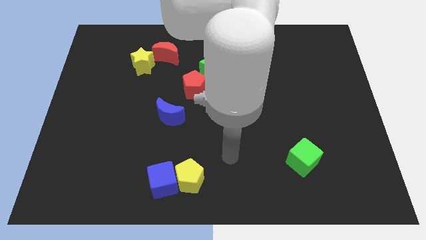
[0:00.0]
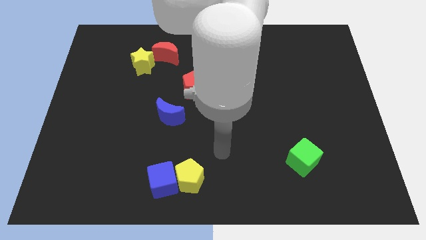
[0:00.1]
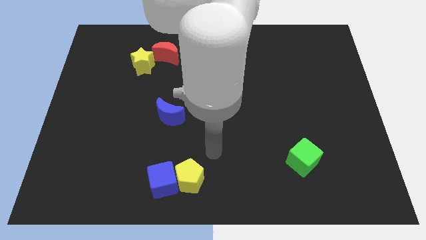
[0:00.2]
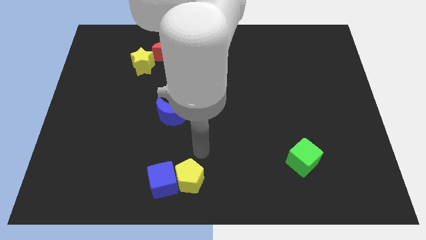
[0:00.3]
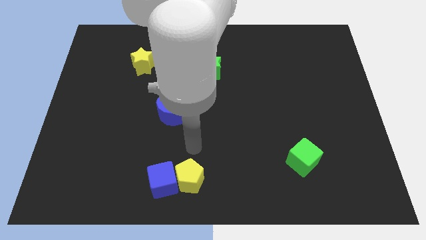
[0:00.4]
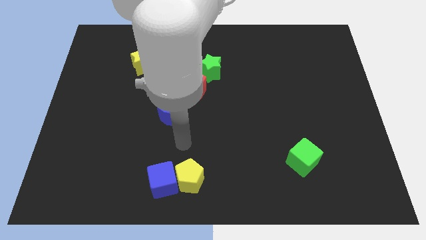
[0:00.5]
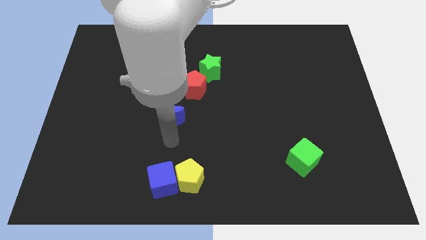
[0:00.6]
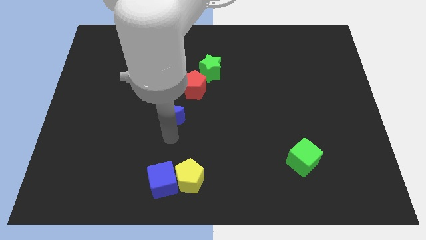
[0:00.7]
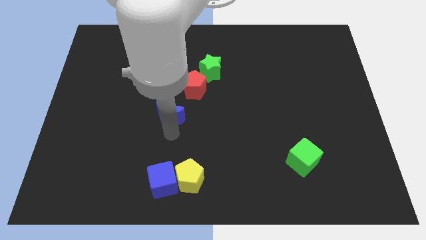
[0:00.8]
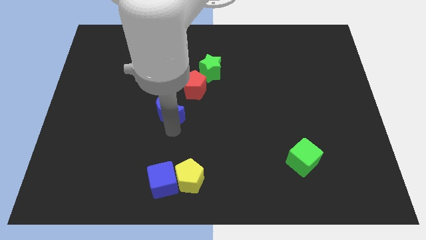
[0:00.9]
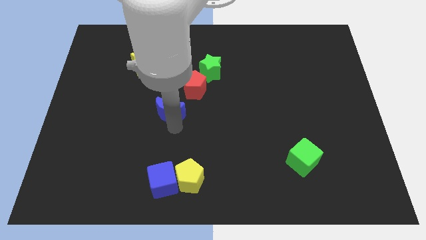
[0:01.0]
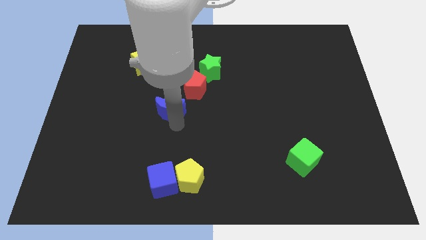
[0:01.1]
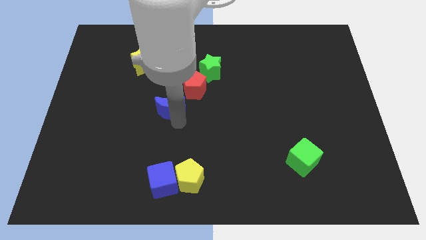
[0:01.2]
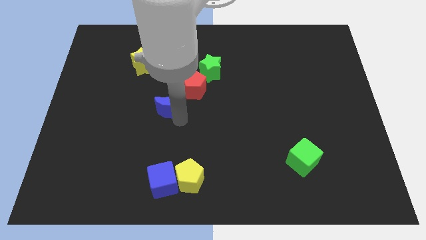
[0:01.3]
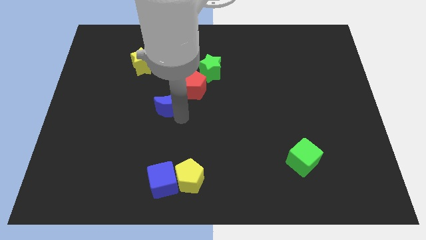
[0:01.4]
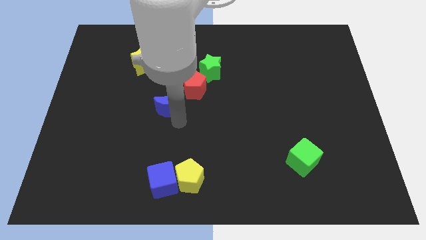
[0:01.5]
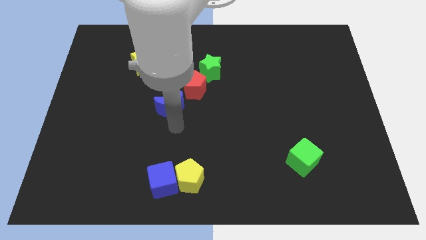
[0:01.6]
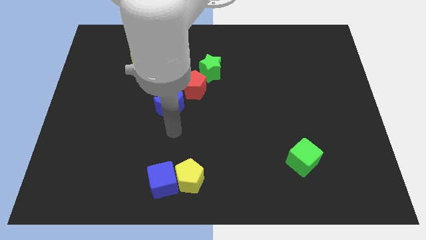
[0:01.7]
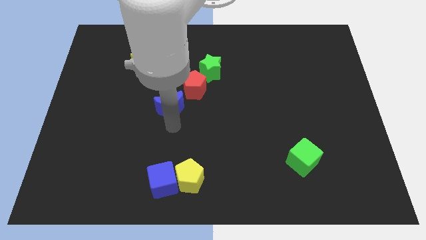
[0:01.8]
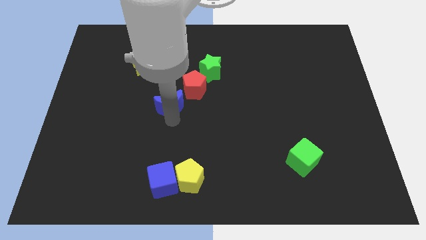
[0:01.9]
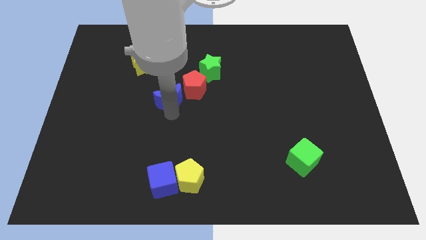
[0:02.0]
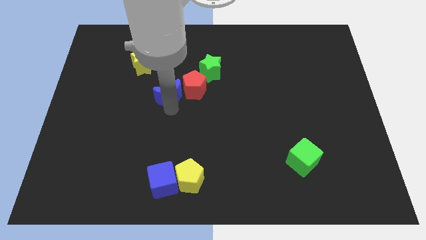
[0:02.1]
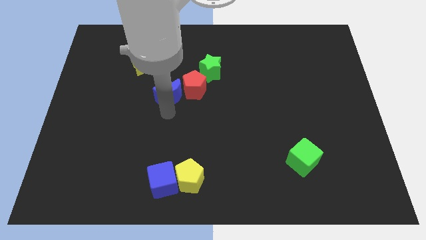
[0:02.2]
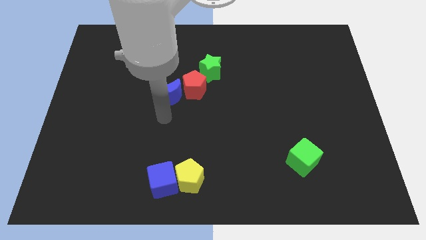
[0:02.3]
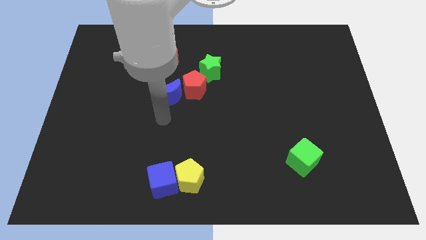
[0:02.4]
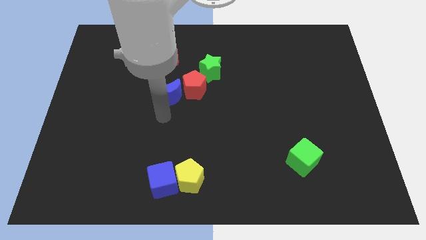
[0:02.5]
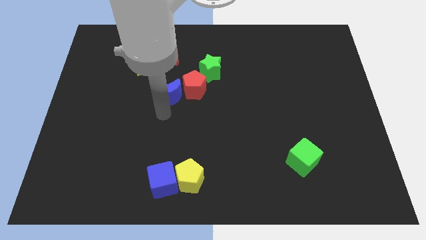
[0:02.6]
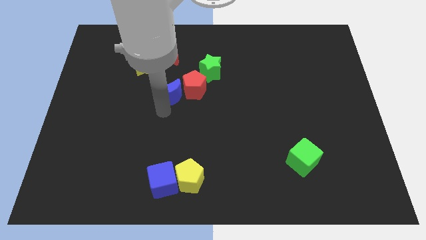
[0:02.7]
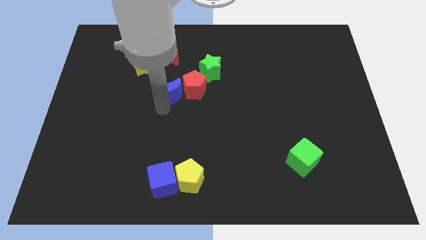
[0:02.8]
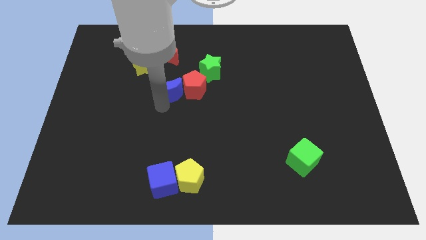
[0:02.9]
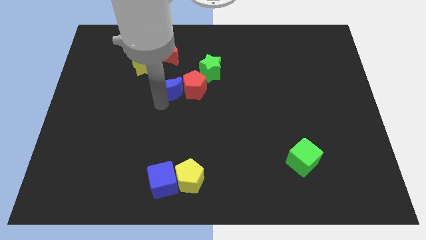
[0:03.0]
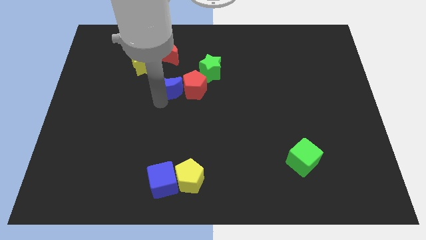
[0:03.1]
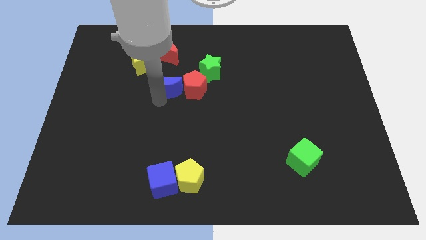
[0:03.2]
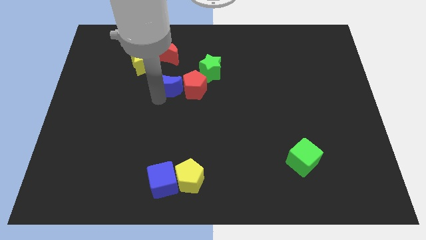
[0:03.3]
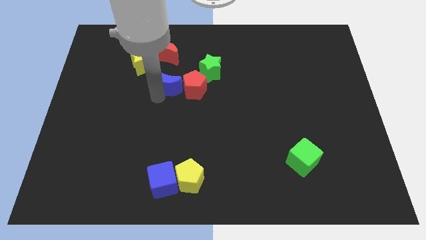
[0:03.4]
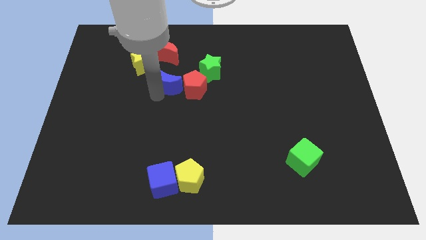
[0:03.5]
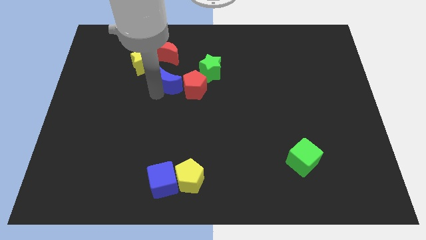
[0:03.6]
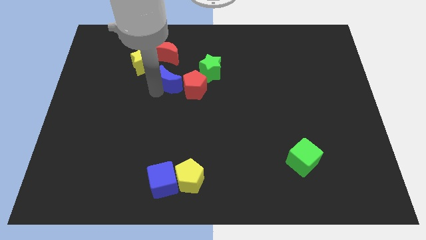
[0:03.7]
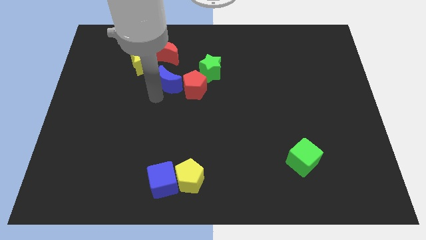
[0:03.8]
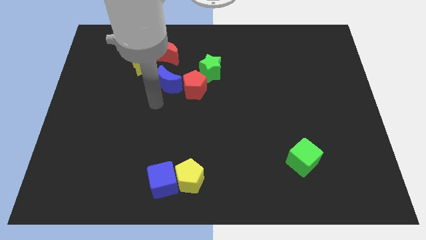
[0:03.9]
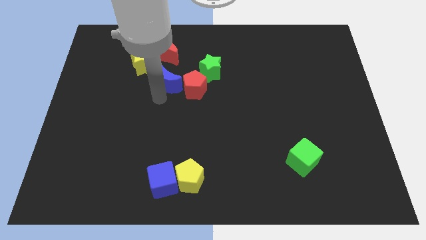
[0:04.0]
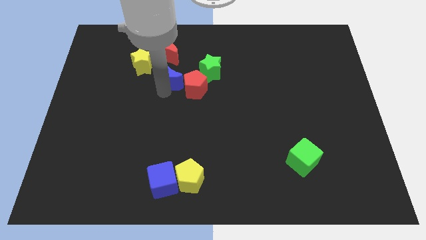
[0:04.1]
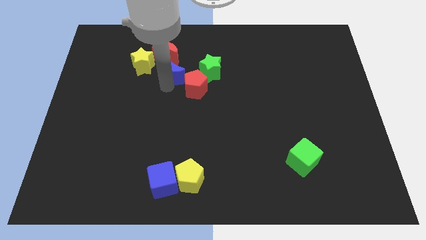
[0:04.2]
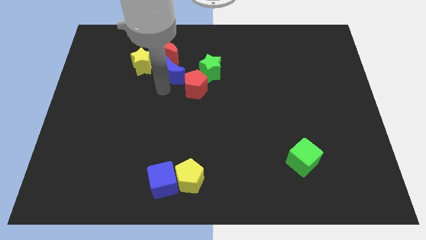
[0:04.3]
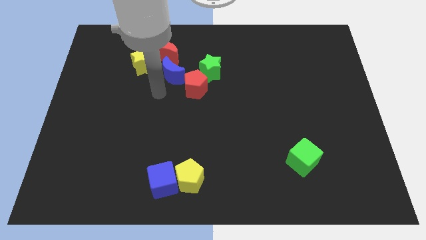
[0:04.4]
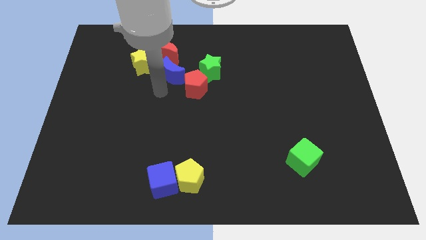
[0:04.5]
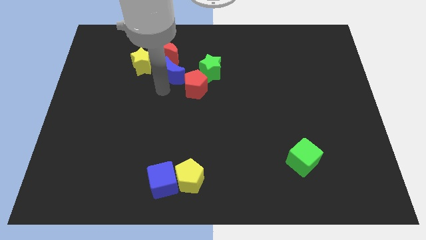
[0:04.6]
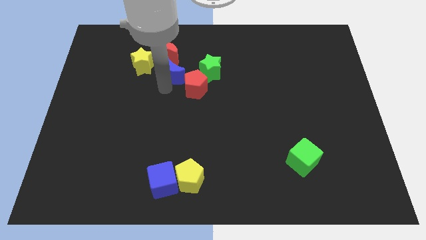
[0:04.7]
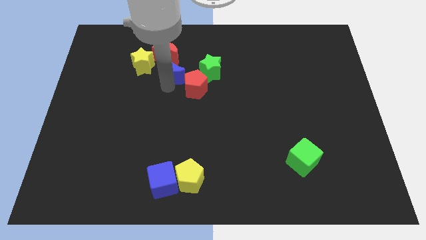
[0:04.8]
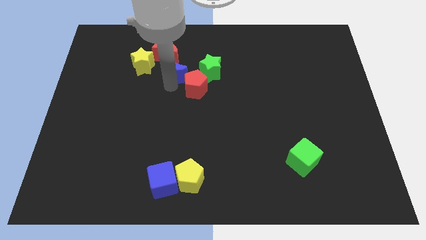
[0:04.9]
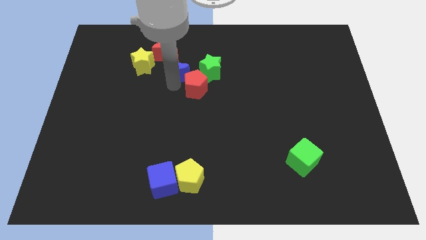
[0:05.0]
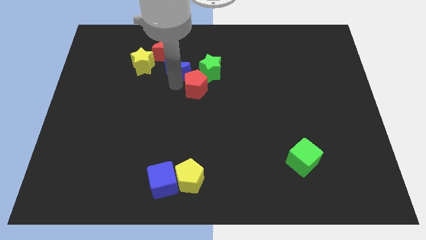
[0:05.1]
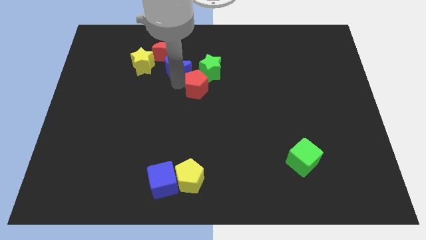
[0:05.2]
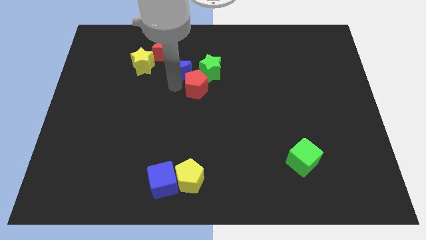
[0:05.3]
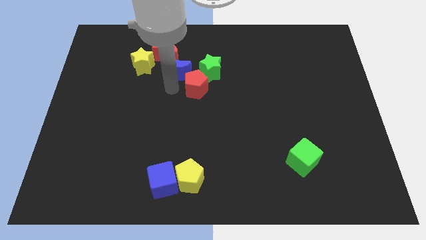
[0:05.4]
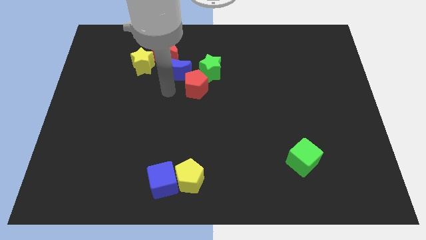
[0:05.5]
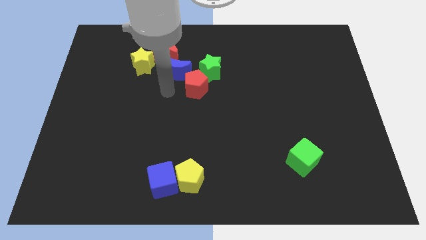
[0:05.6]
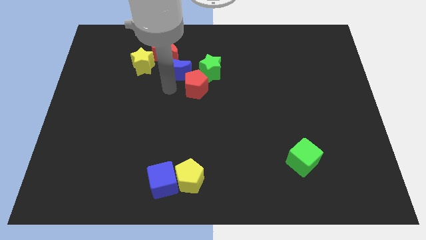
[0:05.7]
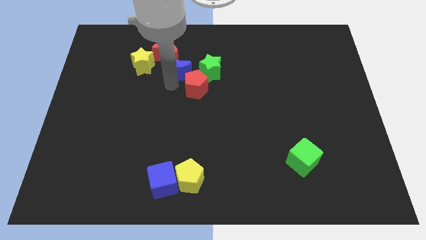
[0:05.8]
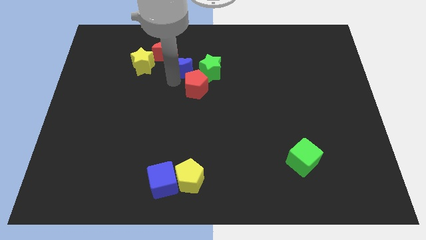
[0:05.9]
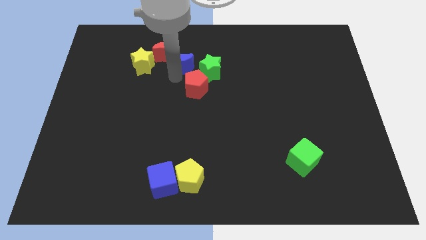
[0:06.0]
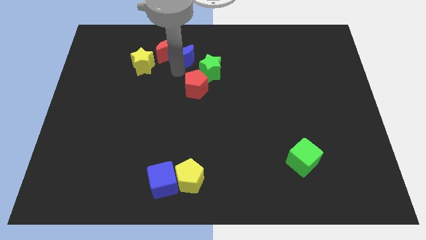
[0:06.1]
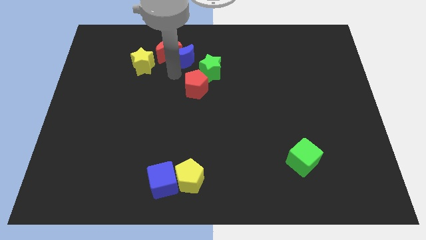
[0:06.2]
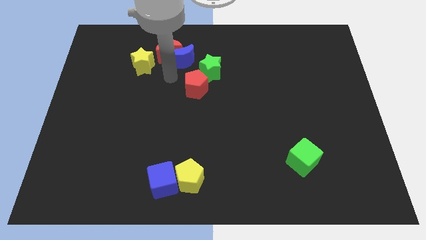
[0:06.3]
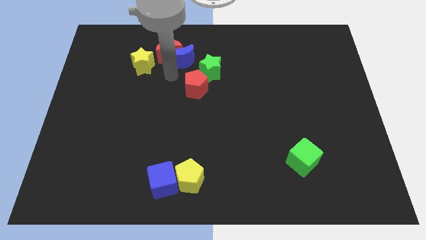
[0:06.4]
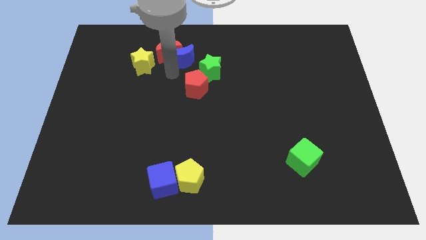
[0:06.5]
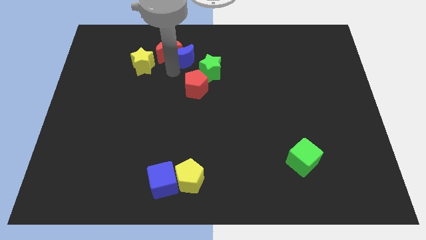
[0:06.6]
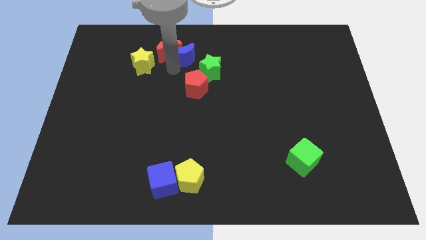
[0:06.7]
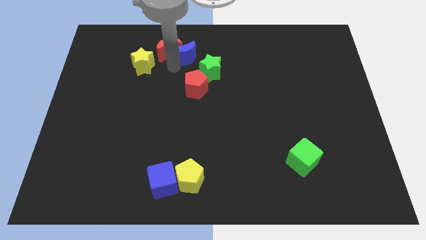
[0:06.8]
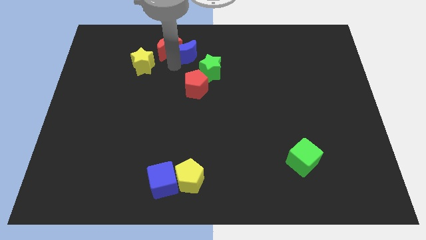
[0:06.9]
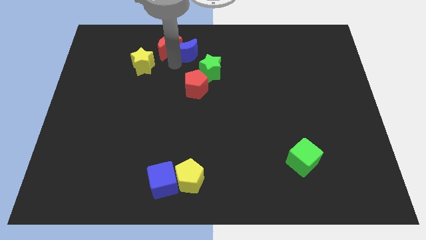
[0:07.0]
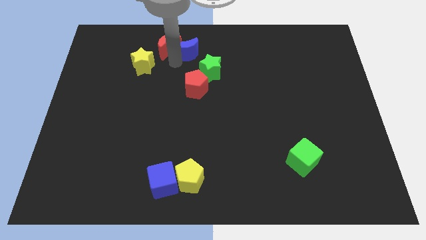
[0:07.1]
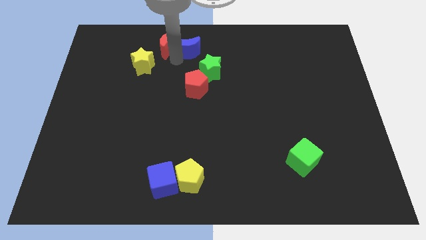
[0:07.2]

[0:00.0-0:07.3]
put the blue moon to the top

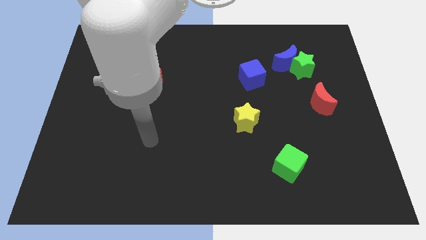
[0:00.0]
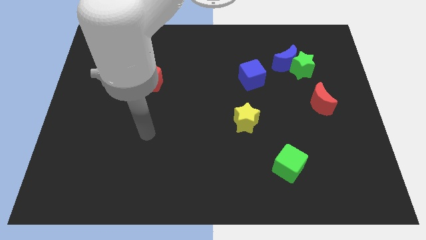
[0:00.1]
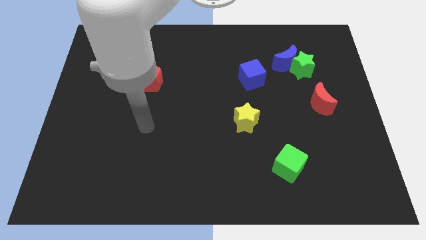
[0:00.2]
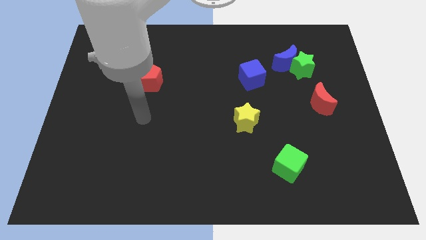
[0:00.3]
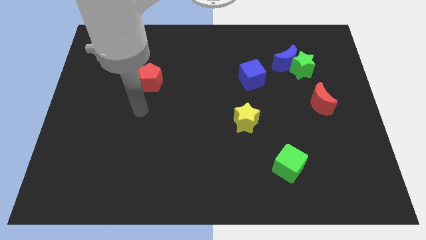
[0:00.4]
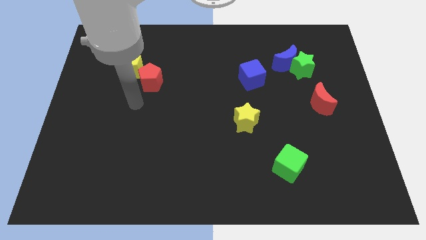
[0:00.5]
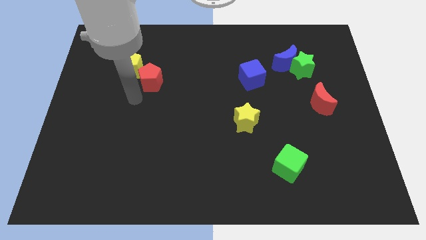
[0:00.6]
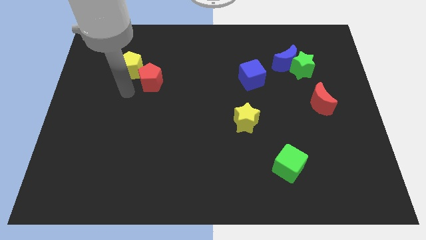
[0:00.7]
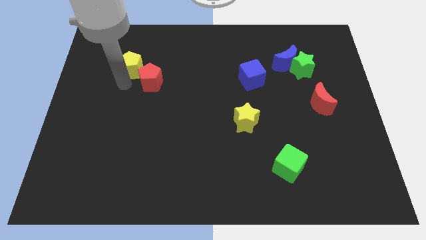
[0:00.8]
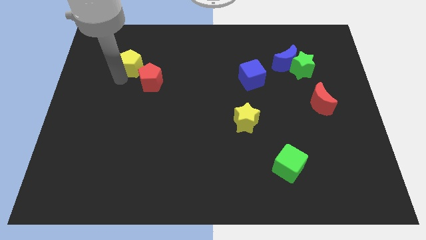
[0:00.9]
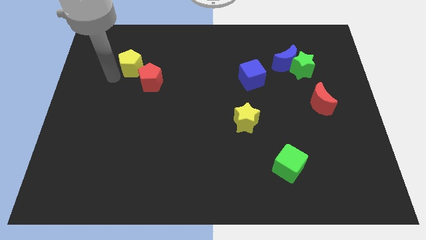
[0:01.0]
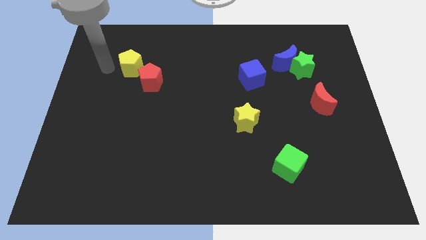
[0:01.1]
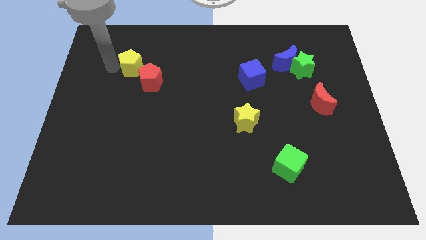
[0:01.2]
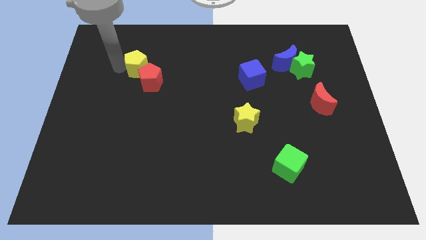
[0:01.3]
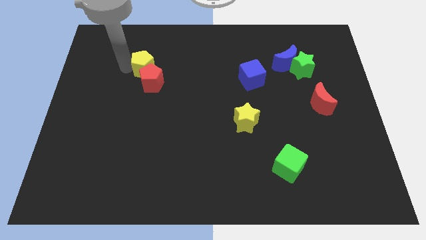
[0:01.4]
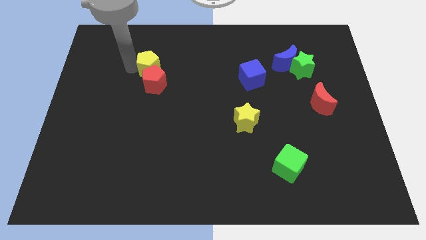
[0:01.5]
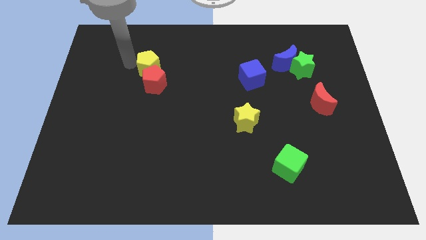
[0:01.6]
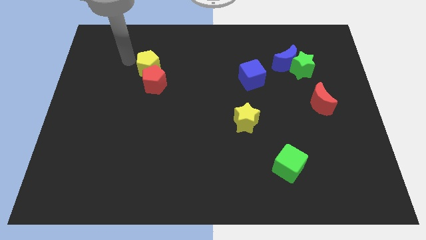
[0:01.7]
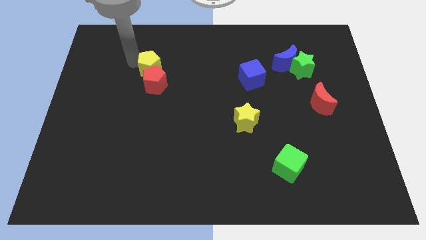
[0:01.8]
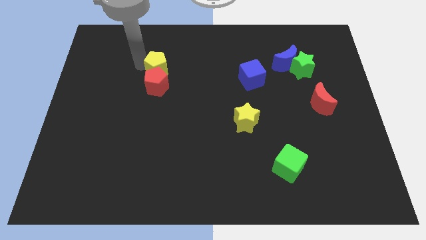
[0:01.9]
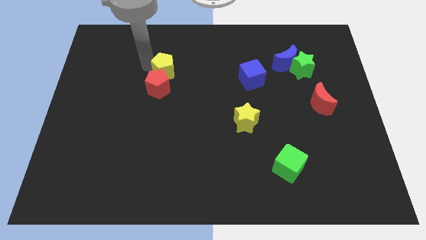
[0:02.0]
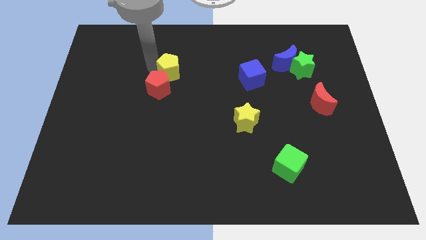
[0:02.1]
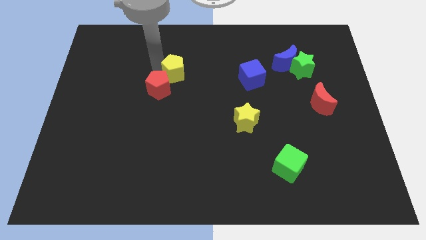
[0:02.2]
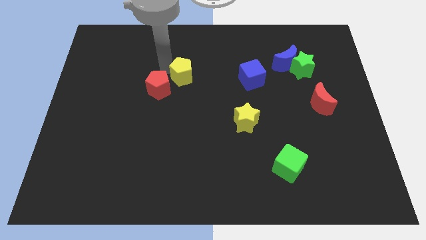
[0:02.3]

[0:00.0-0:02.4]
slide the yellow pentagon to the center of the board
